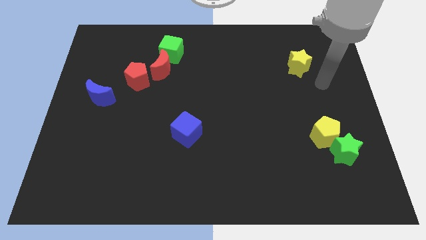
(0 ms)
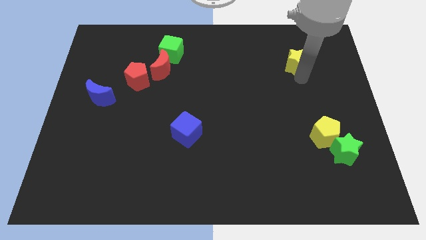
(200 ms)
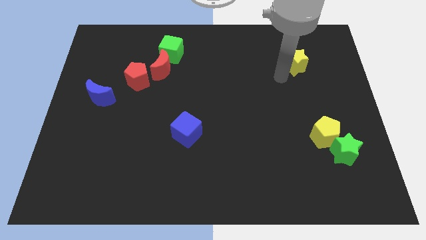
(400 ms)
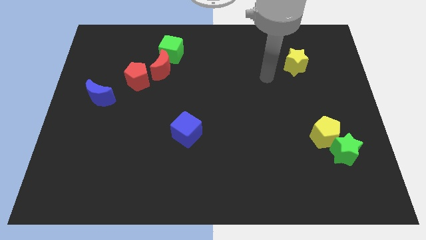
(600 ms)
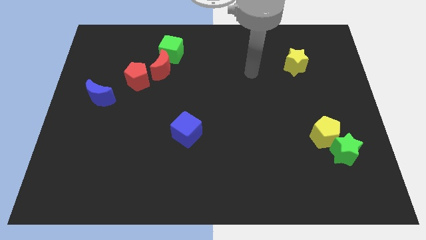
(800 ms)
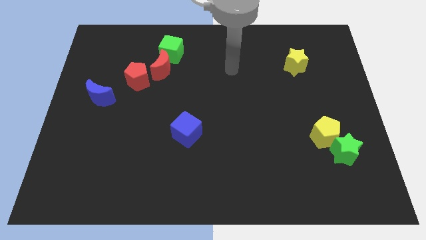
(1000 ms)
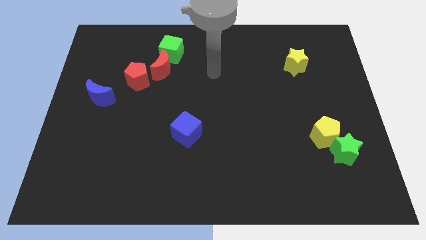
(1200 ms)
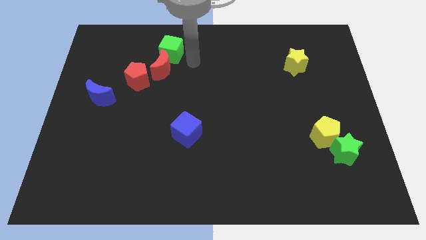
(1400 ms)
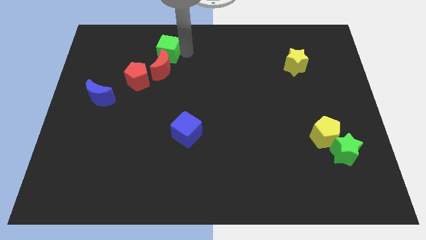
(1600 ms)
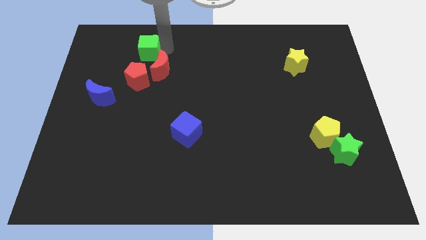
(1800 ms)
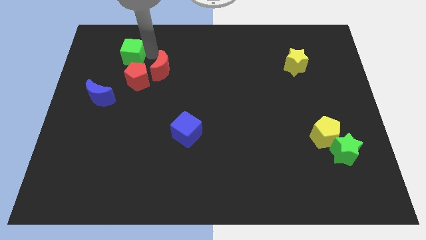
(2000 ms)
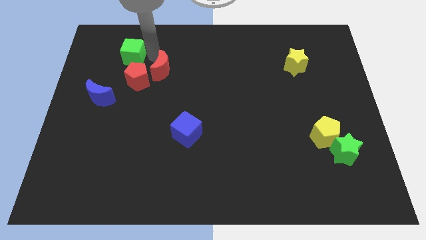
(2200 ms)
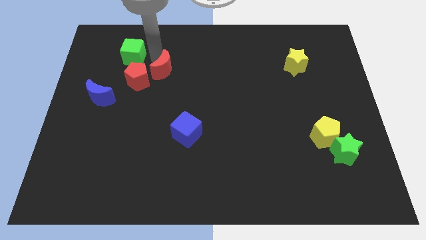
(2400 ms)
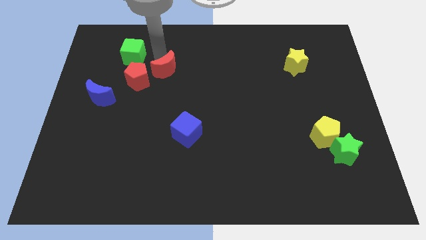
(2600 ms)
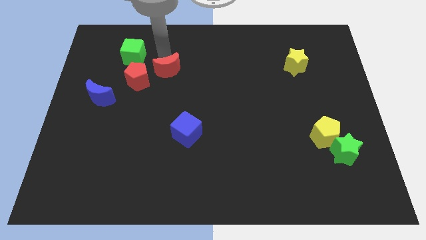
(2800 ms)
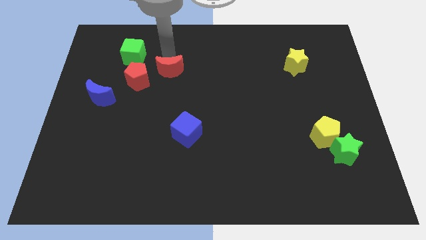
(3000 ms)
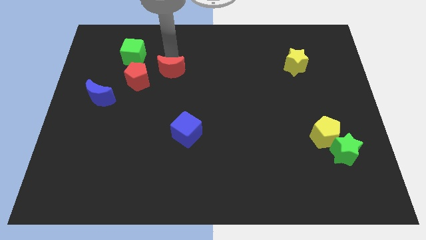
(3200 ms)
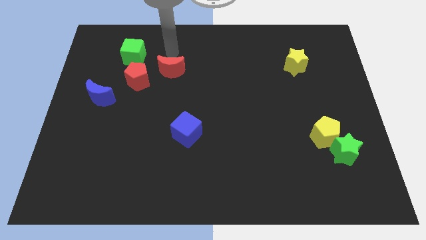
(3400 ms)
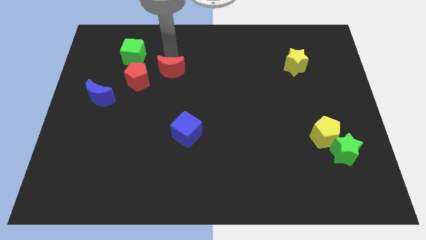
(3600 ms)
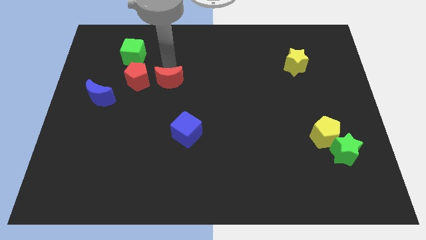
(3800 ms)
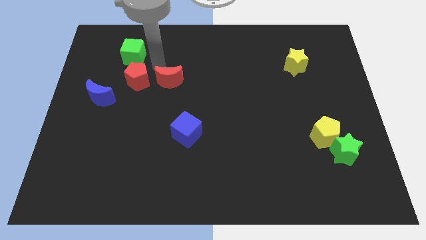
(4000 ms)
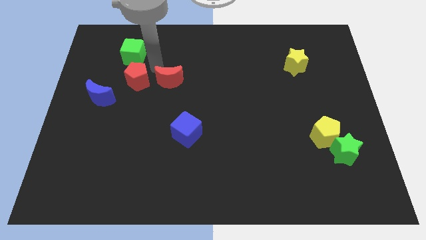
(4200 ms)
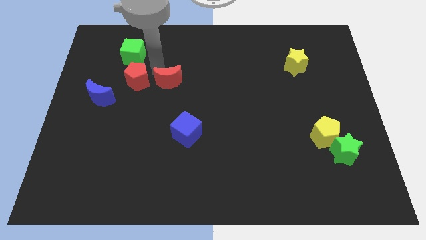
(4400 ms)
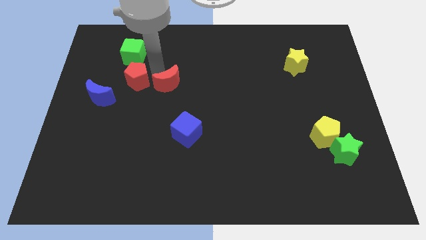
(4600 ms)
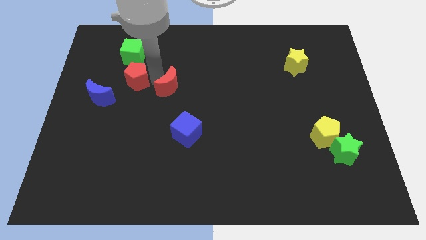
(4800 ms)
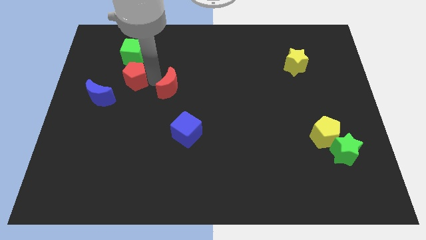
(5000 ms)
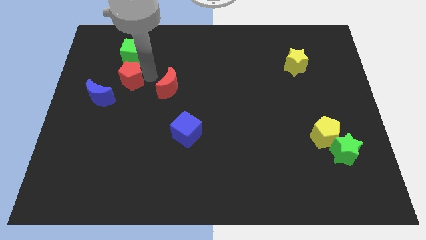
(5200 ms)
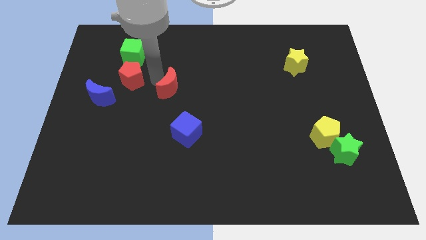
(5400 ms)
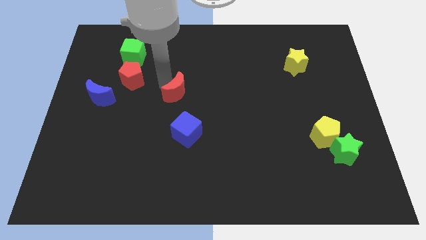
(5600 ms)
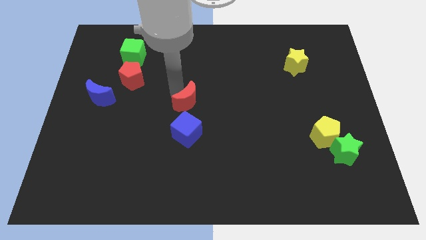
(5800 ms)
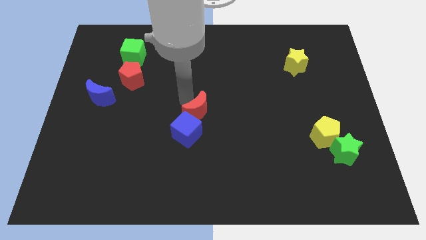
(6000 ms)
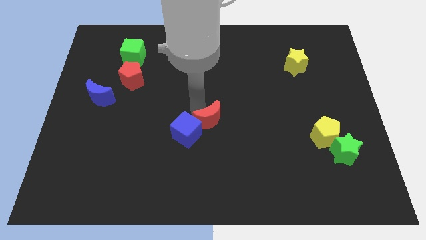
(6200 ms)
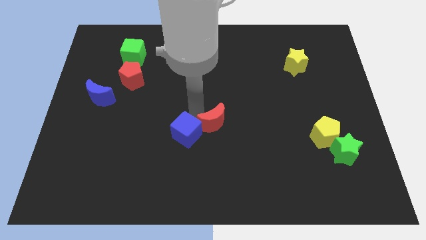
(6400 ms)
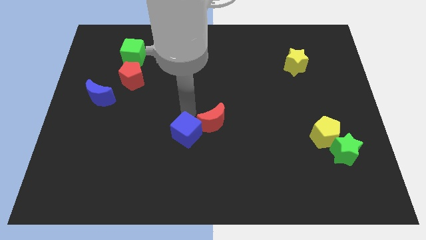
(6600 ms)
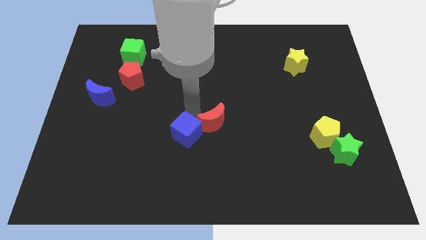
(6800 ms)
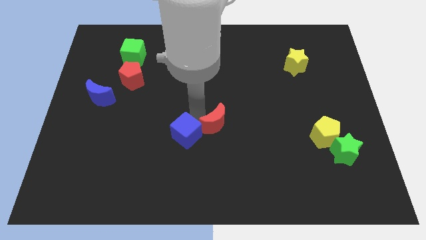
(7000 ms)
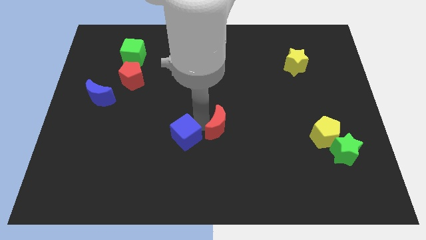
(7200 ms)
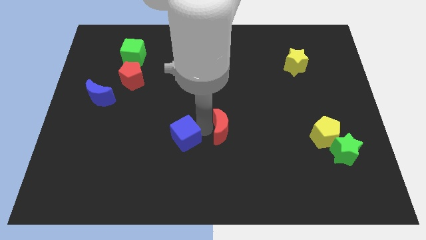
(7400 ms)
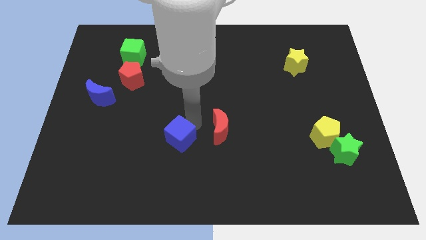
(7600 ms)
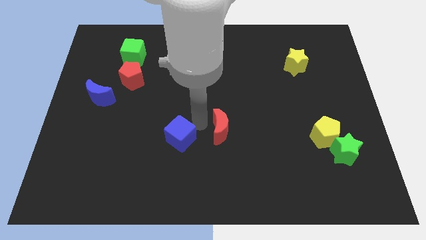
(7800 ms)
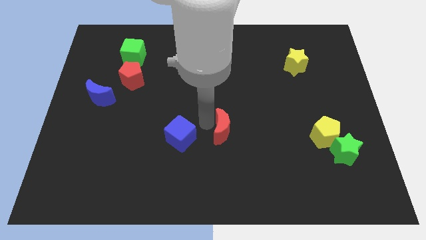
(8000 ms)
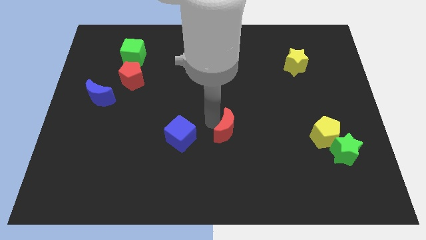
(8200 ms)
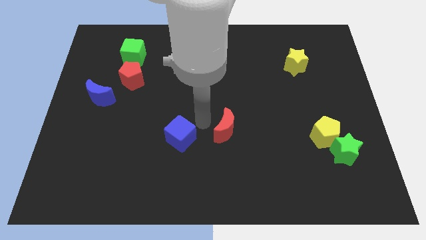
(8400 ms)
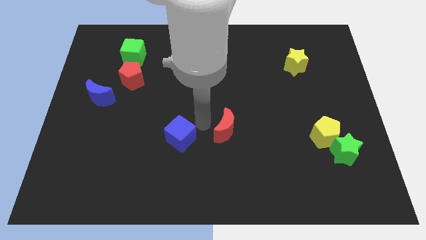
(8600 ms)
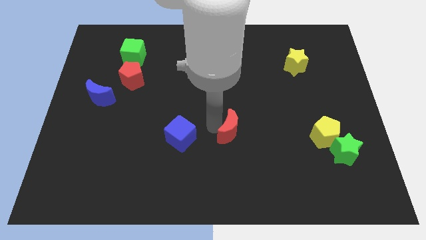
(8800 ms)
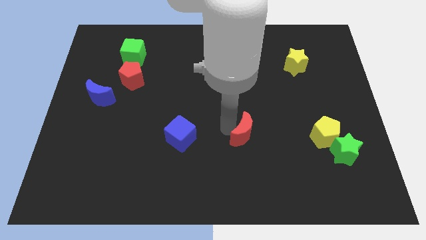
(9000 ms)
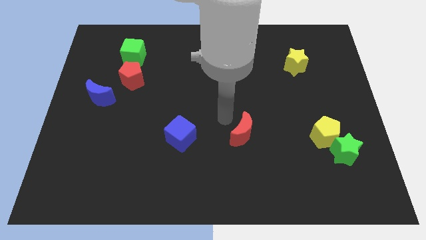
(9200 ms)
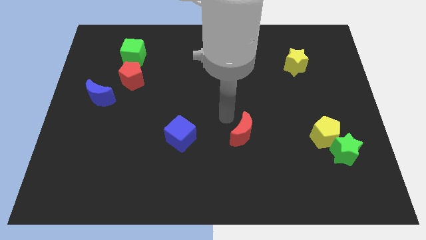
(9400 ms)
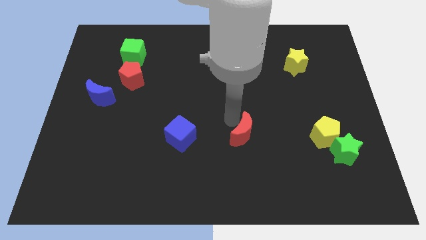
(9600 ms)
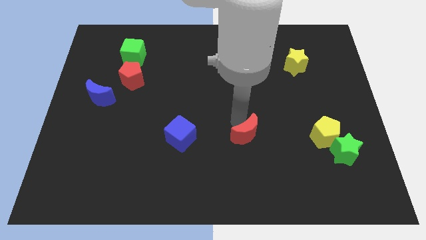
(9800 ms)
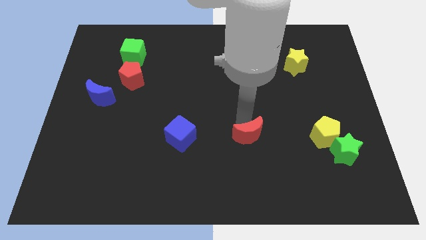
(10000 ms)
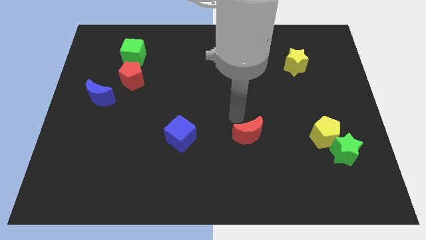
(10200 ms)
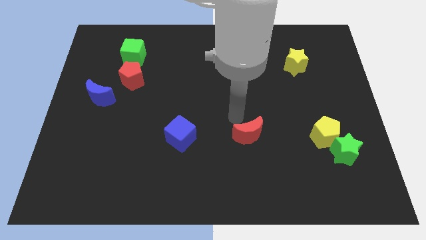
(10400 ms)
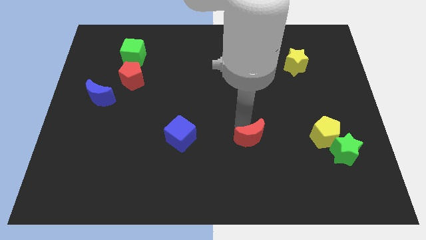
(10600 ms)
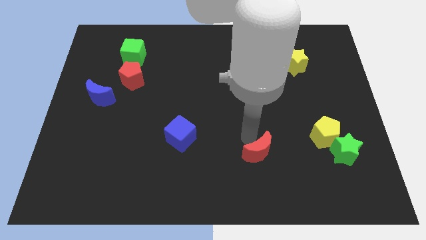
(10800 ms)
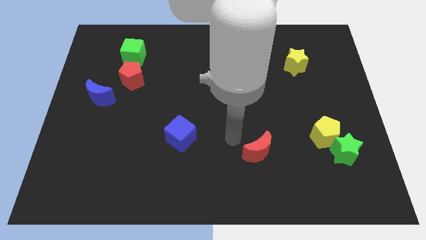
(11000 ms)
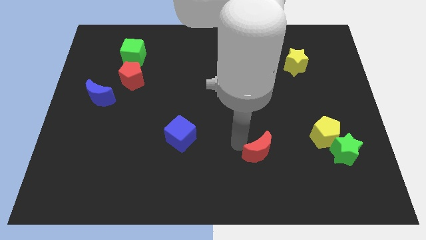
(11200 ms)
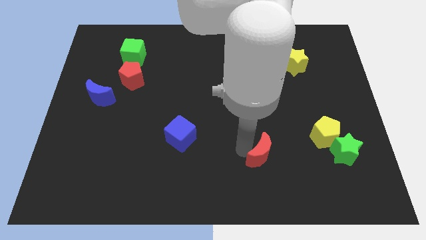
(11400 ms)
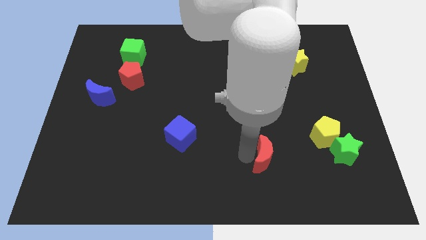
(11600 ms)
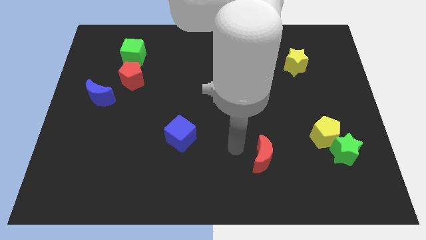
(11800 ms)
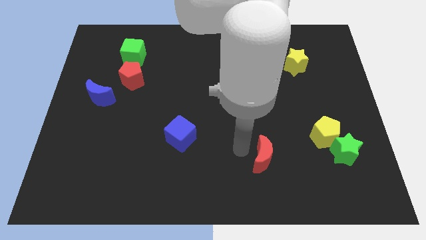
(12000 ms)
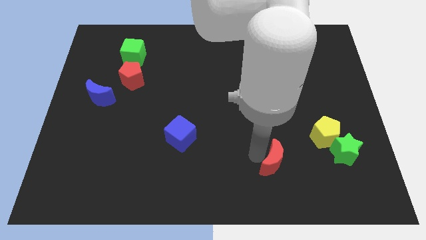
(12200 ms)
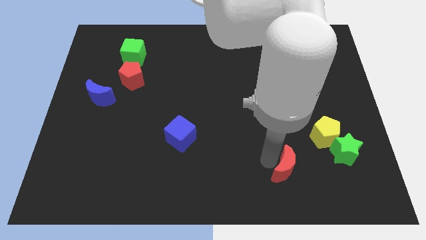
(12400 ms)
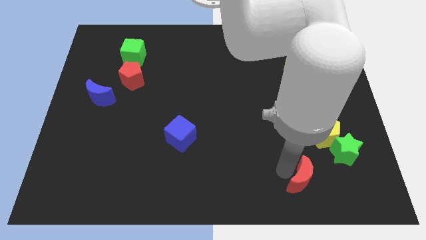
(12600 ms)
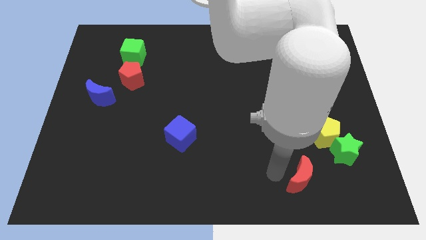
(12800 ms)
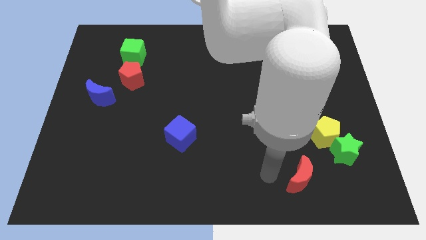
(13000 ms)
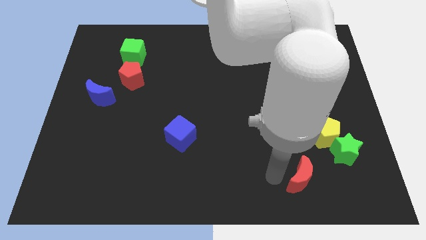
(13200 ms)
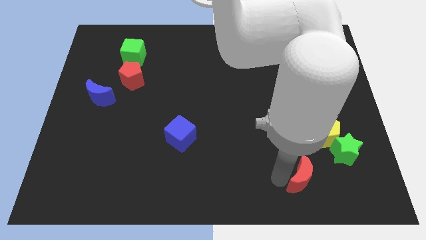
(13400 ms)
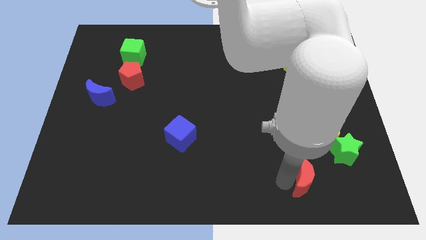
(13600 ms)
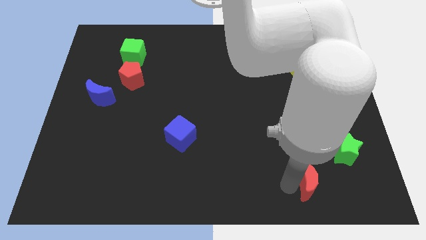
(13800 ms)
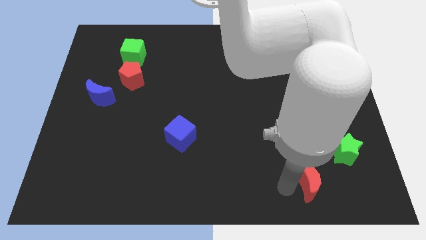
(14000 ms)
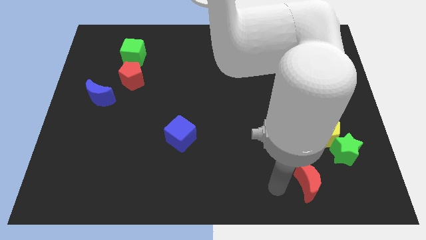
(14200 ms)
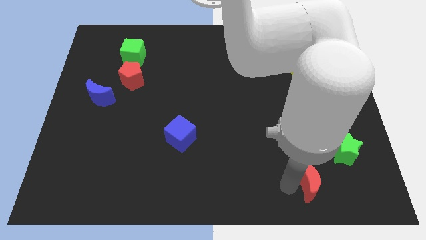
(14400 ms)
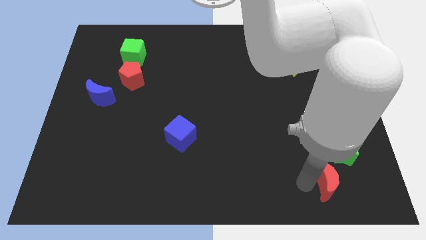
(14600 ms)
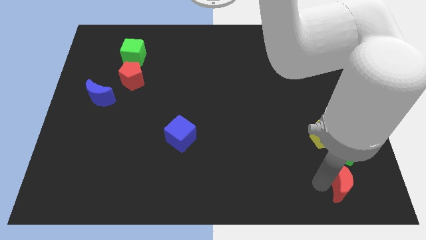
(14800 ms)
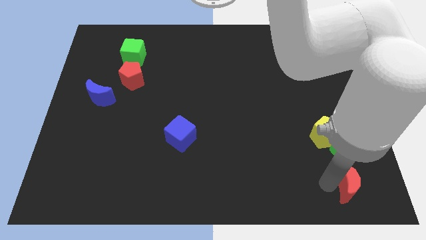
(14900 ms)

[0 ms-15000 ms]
push the red moon to the bottom right of the board
